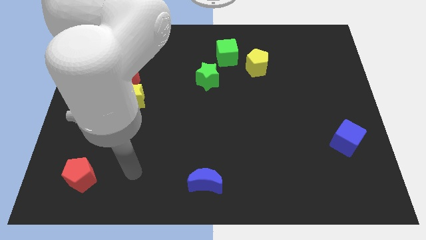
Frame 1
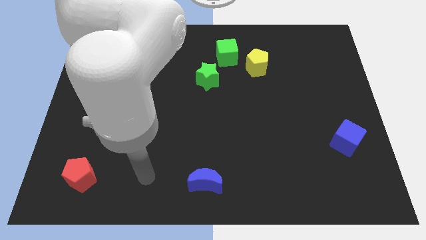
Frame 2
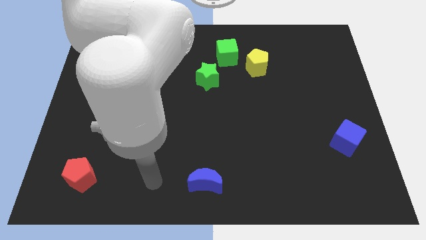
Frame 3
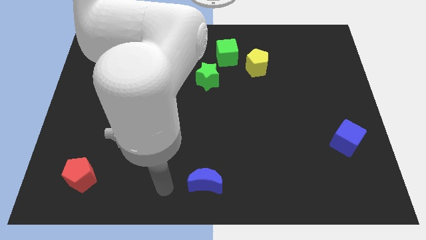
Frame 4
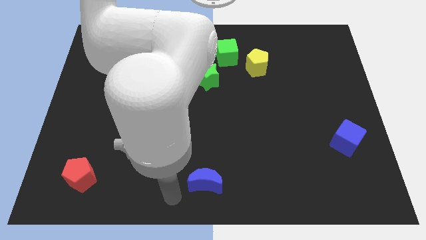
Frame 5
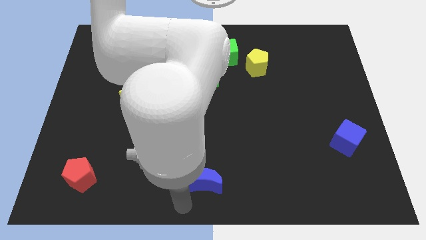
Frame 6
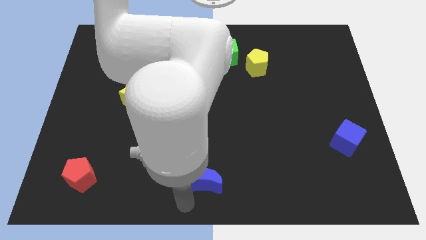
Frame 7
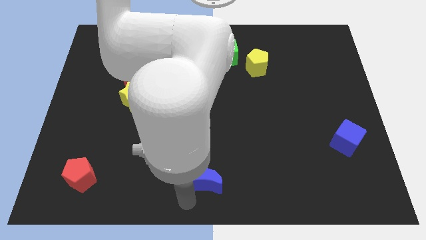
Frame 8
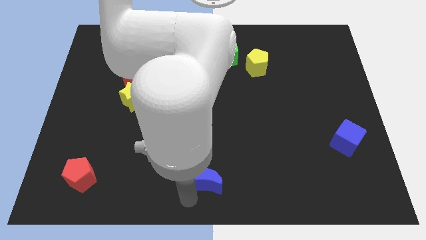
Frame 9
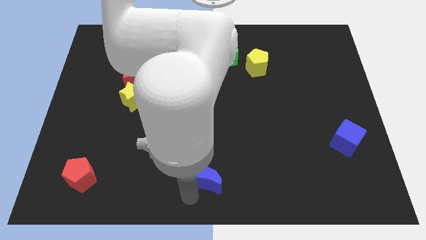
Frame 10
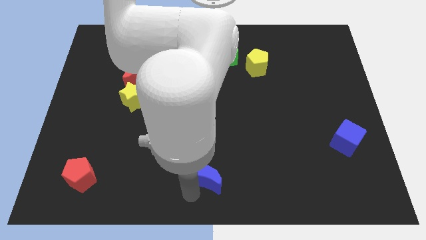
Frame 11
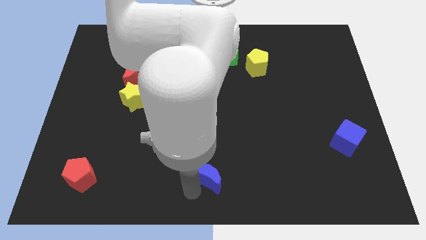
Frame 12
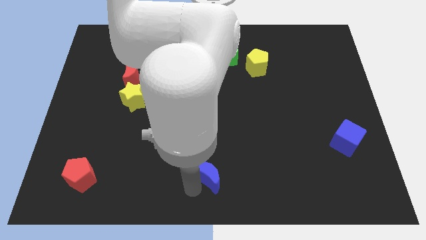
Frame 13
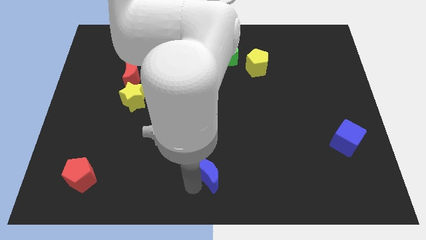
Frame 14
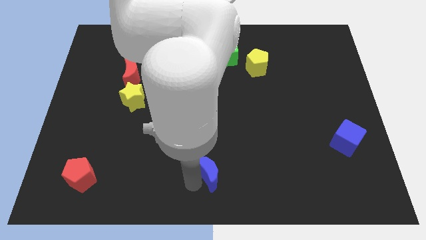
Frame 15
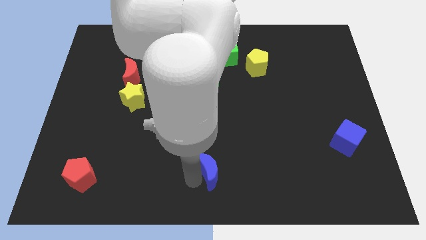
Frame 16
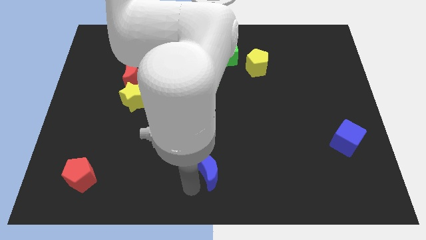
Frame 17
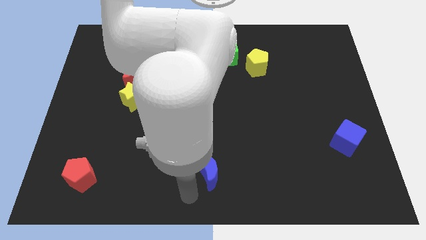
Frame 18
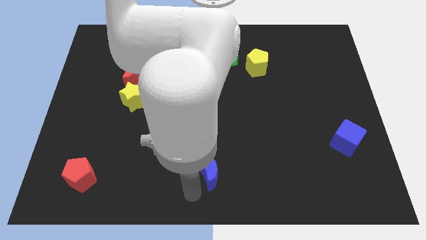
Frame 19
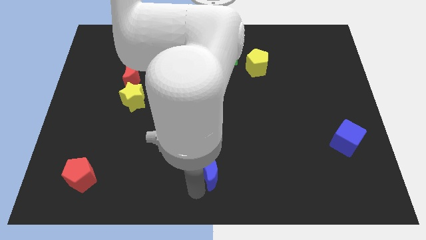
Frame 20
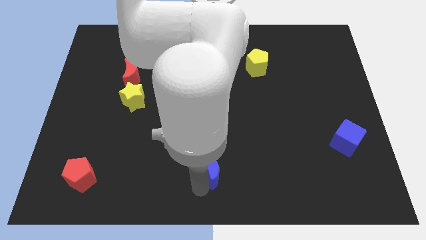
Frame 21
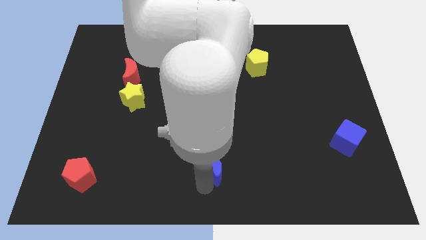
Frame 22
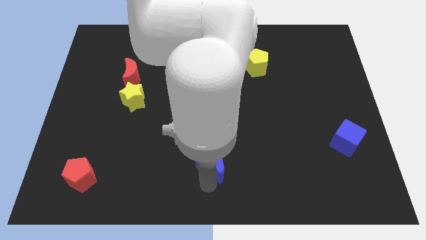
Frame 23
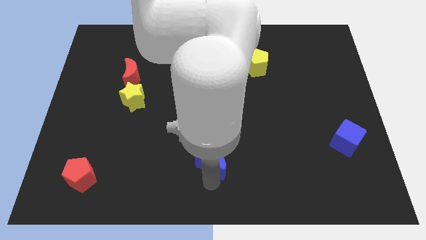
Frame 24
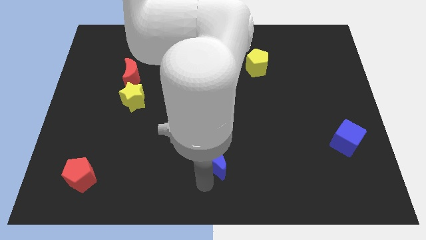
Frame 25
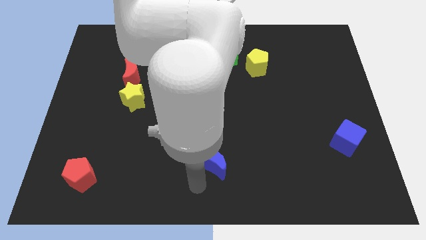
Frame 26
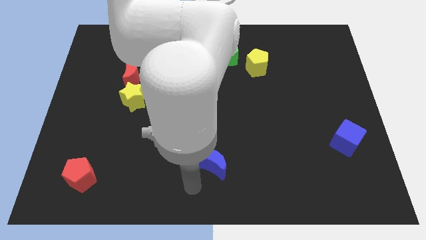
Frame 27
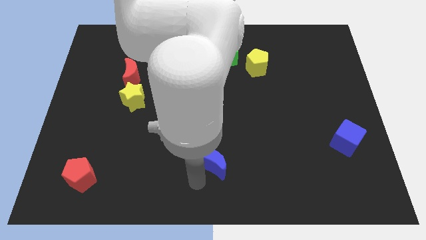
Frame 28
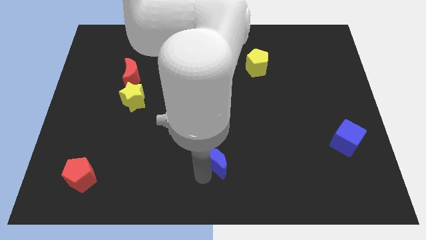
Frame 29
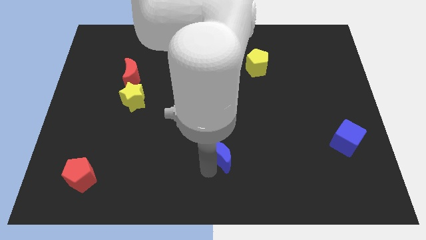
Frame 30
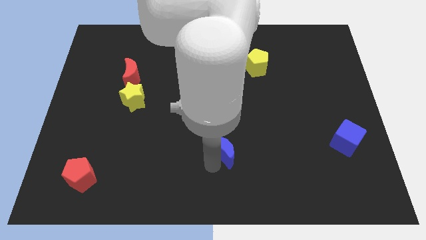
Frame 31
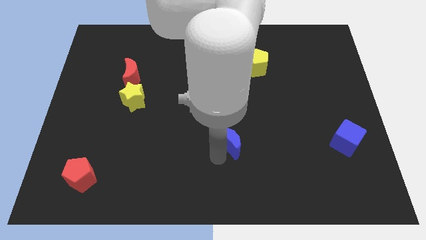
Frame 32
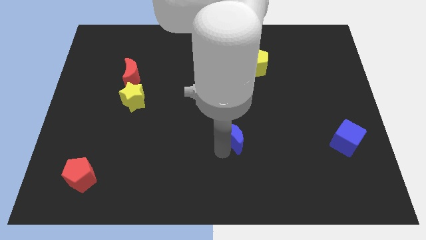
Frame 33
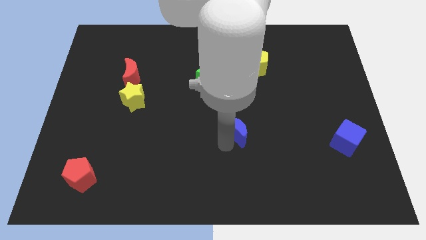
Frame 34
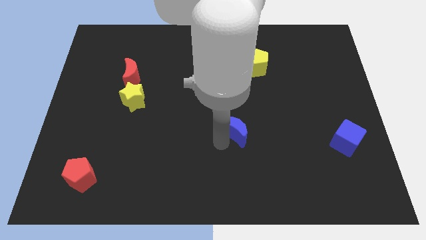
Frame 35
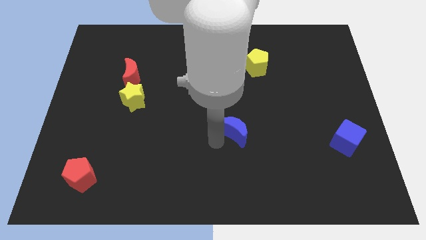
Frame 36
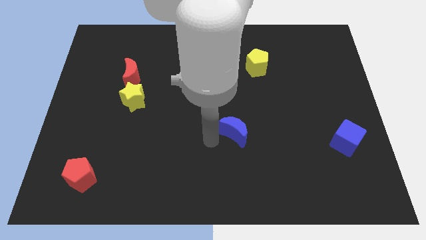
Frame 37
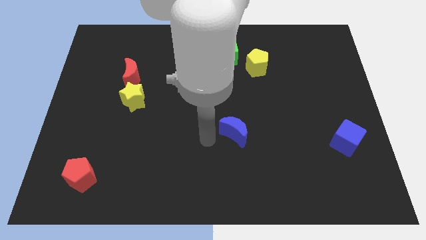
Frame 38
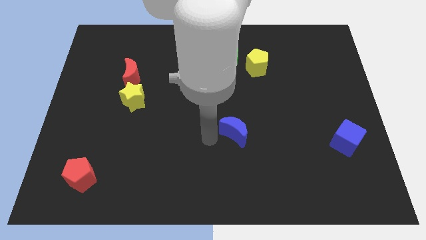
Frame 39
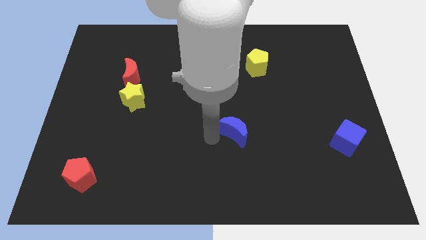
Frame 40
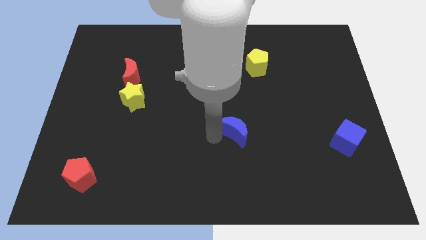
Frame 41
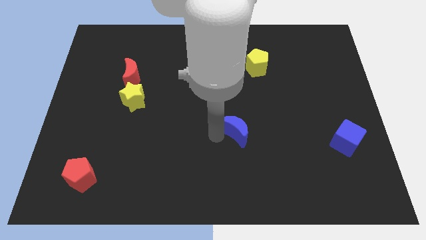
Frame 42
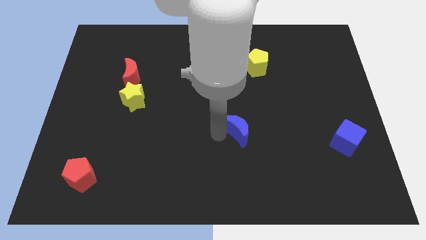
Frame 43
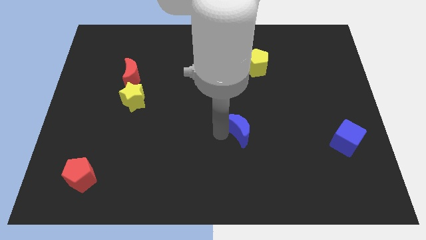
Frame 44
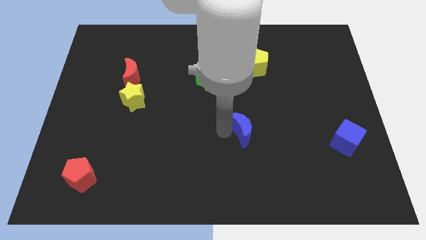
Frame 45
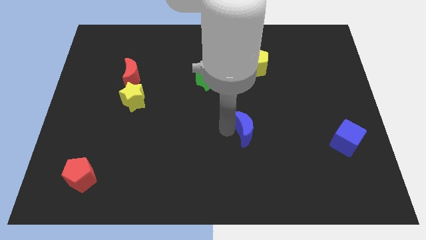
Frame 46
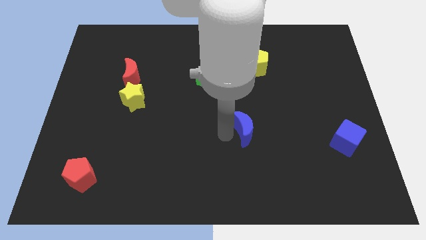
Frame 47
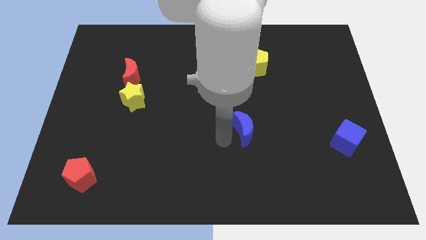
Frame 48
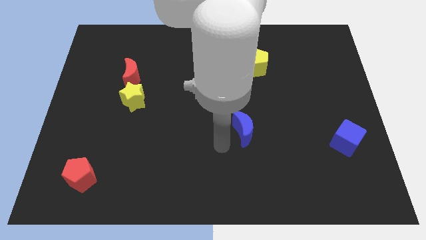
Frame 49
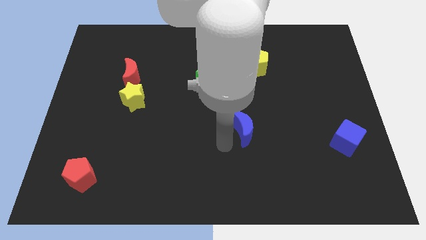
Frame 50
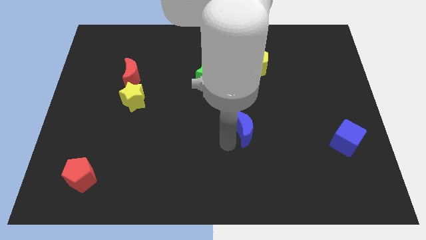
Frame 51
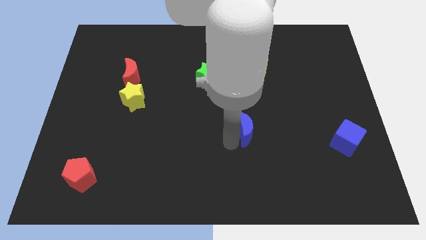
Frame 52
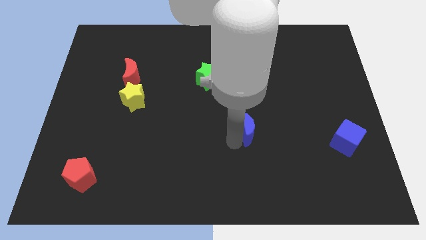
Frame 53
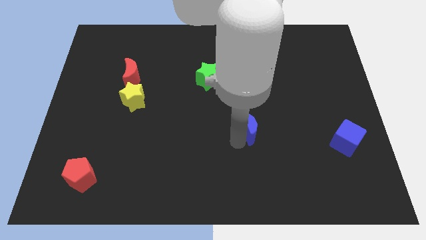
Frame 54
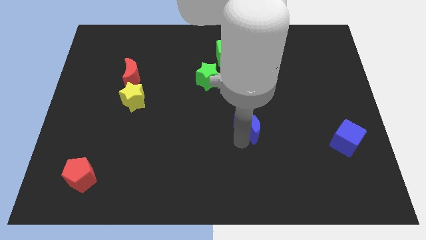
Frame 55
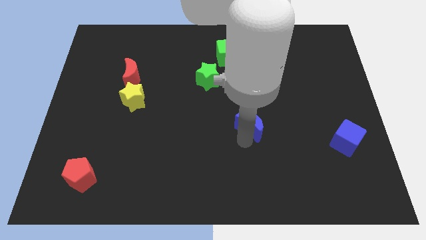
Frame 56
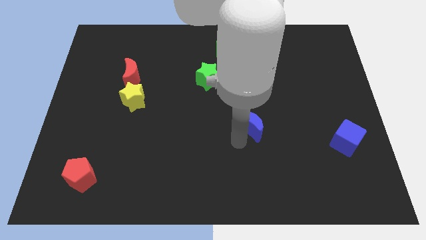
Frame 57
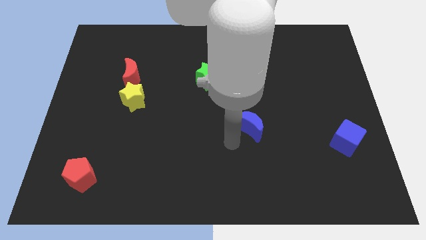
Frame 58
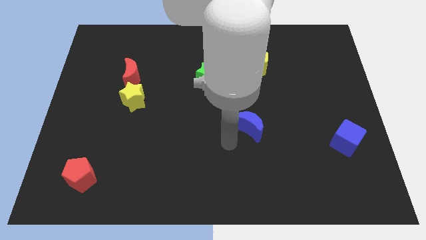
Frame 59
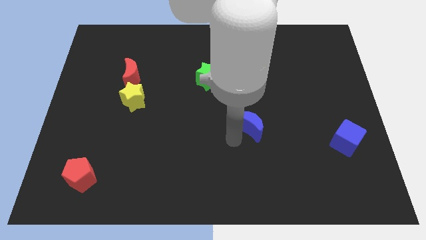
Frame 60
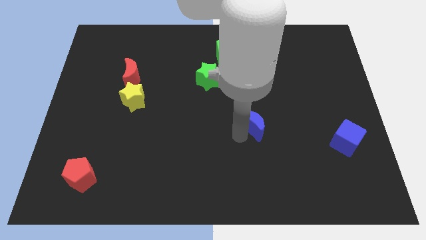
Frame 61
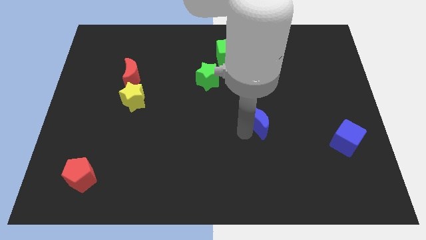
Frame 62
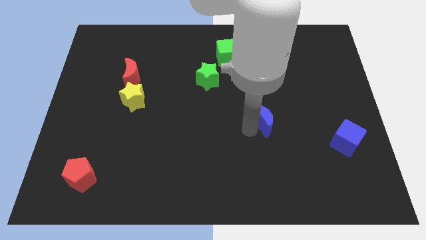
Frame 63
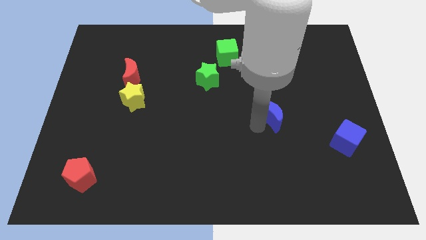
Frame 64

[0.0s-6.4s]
move the blue moon up and then right

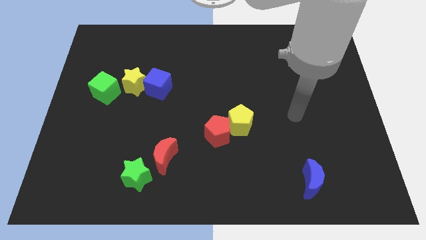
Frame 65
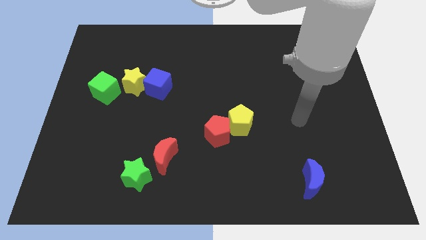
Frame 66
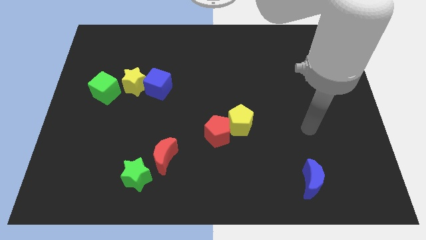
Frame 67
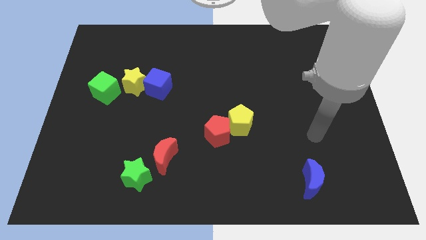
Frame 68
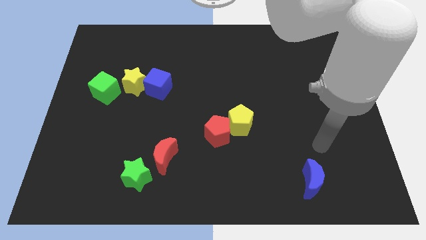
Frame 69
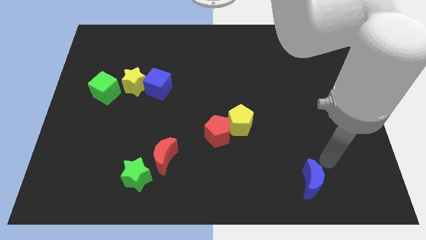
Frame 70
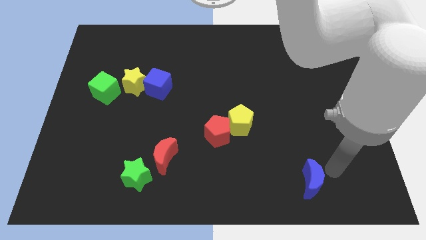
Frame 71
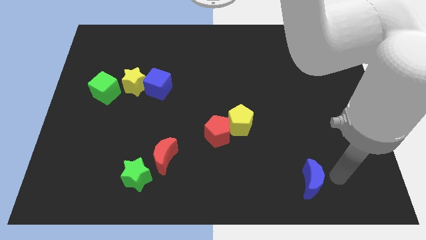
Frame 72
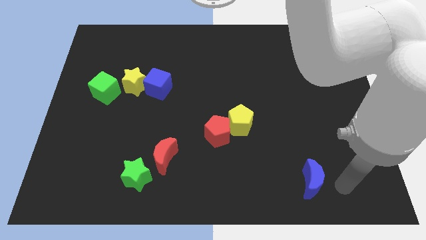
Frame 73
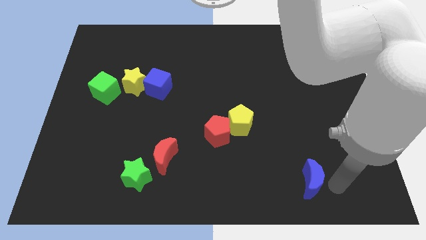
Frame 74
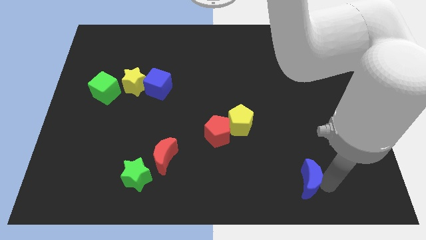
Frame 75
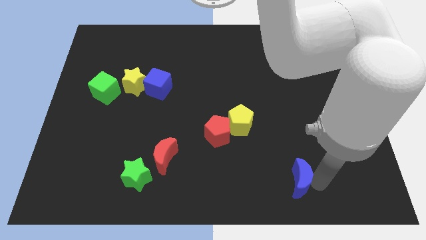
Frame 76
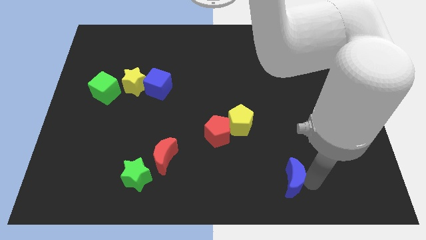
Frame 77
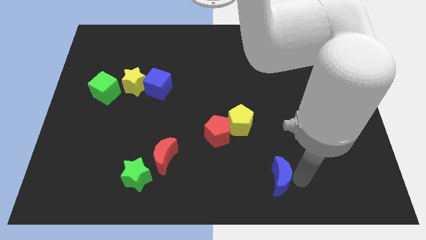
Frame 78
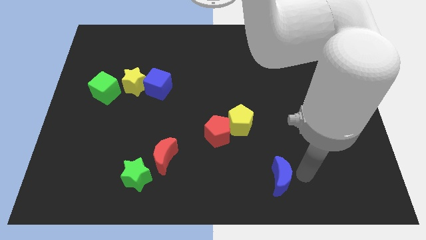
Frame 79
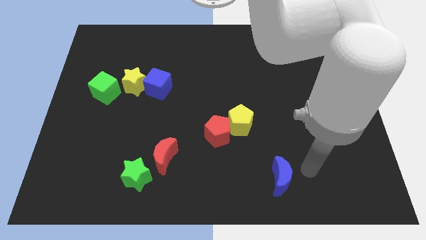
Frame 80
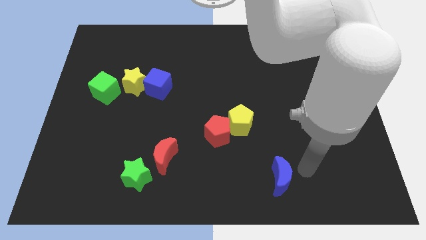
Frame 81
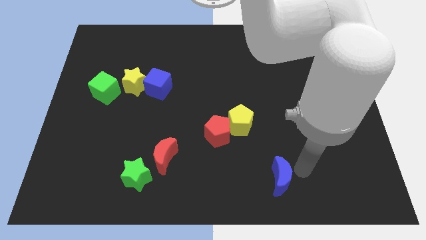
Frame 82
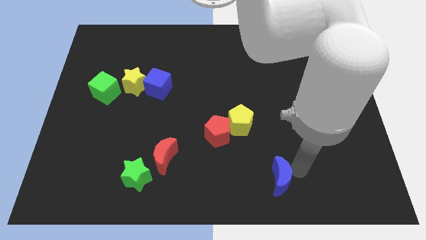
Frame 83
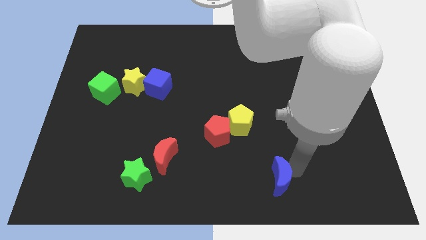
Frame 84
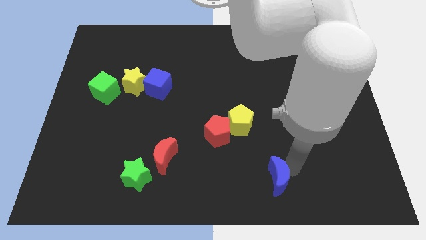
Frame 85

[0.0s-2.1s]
slightly push the blue moon to the left
